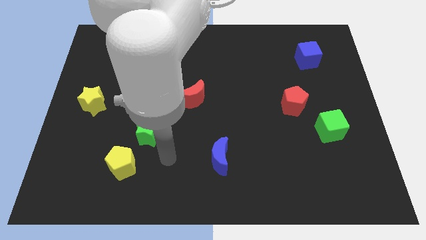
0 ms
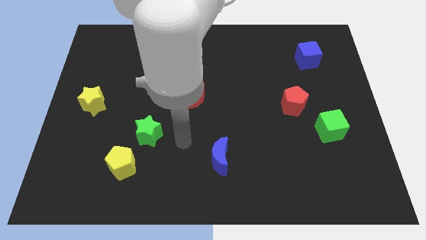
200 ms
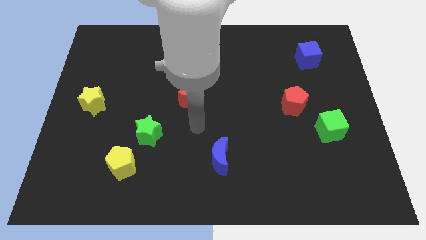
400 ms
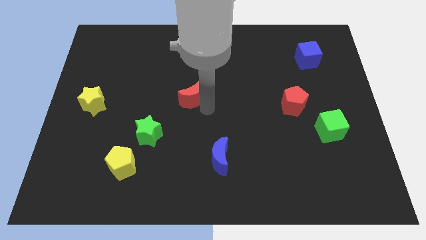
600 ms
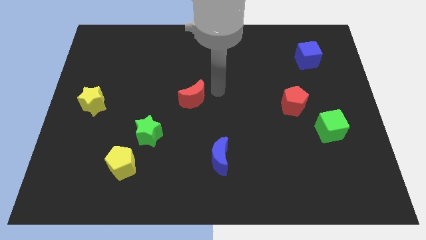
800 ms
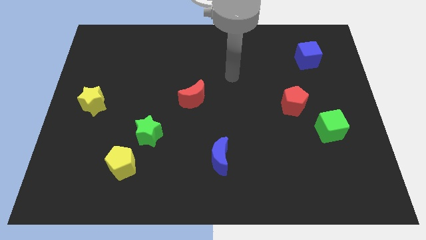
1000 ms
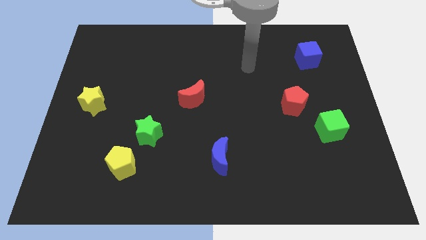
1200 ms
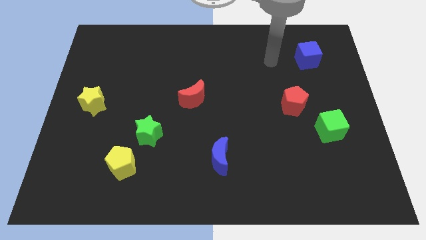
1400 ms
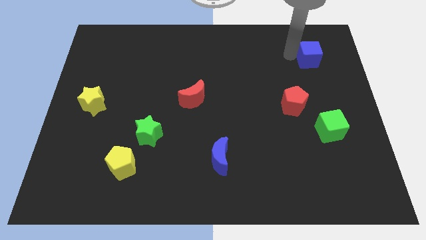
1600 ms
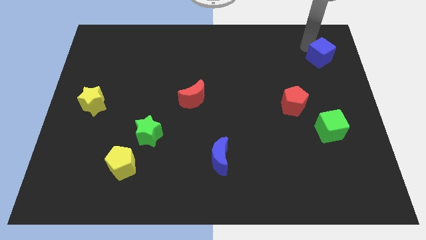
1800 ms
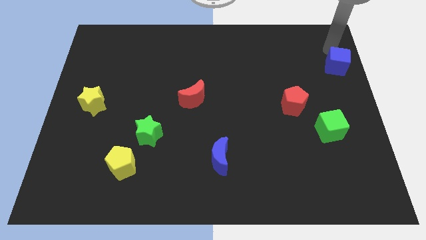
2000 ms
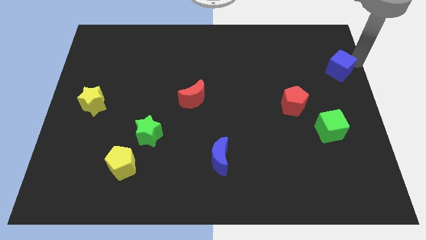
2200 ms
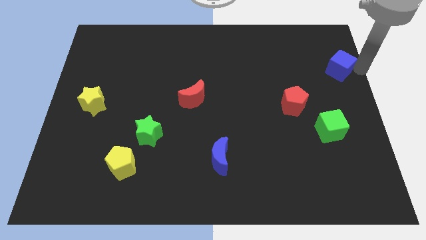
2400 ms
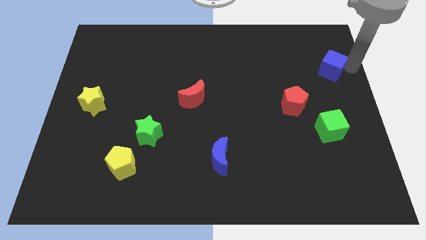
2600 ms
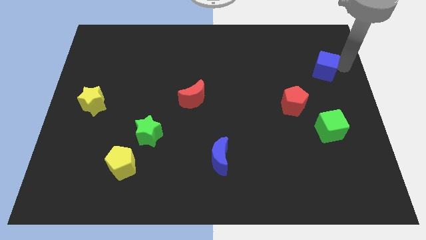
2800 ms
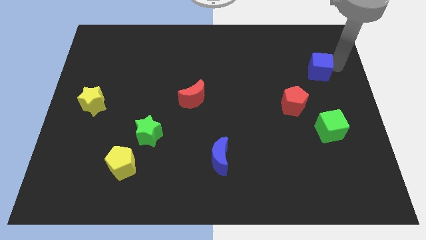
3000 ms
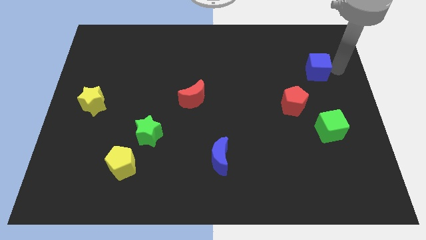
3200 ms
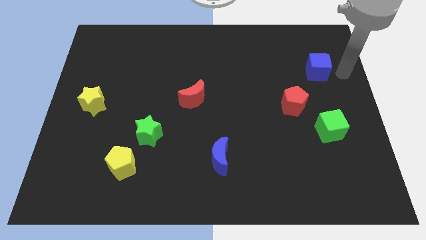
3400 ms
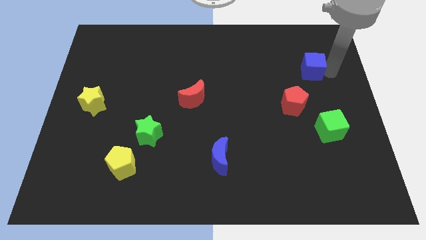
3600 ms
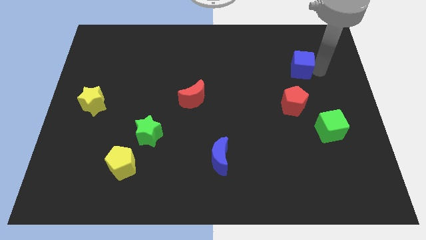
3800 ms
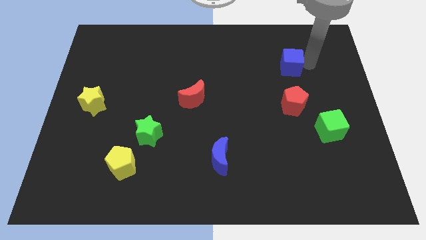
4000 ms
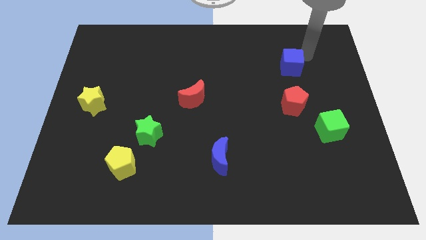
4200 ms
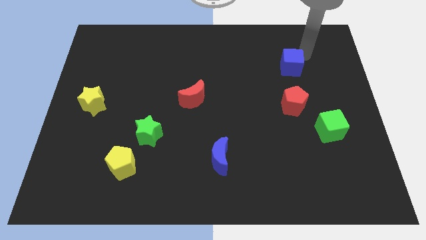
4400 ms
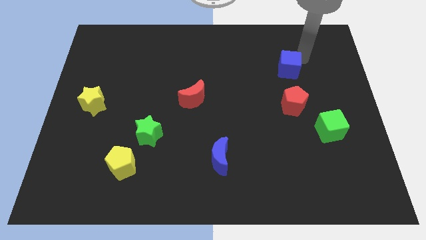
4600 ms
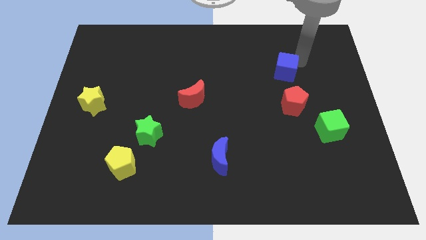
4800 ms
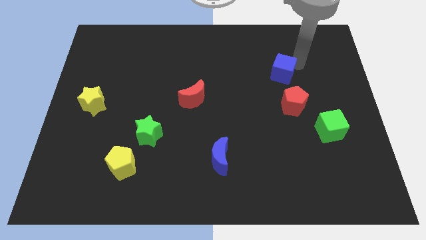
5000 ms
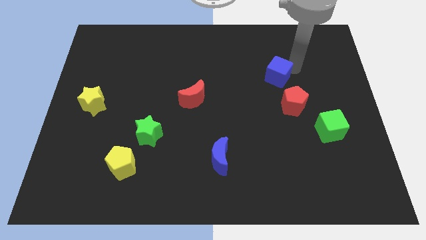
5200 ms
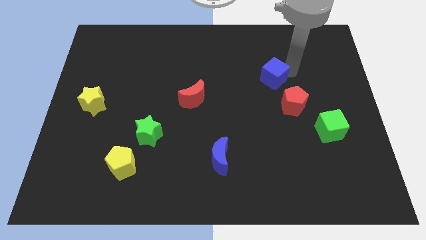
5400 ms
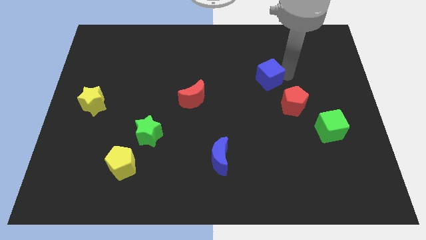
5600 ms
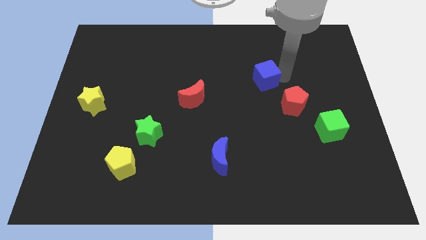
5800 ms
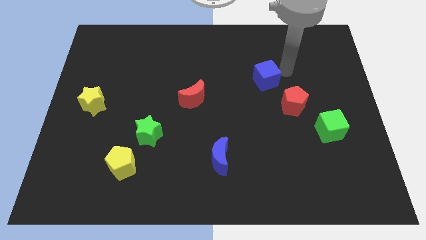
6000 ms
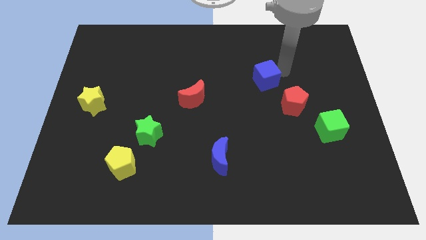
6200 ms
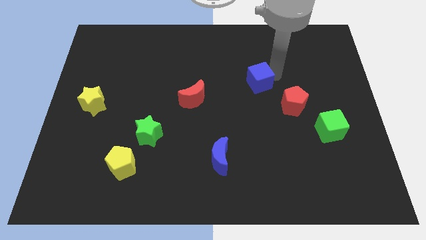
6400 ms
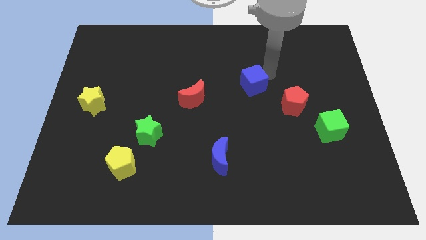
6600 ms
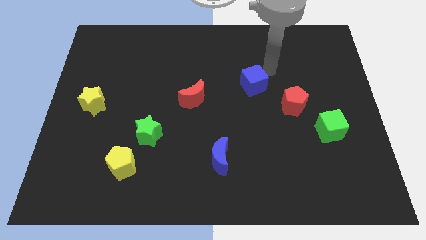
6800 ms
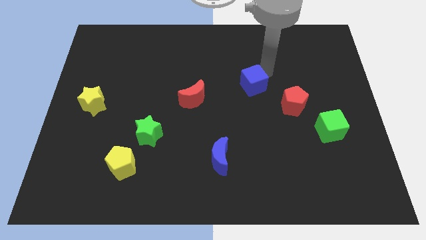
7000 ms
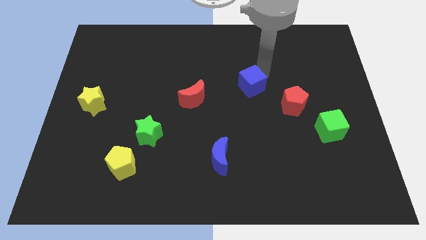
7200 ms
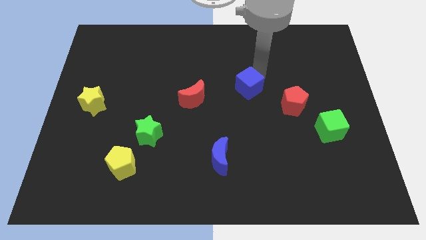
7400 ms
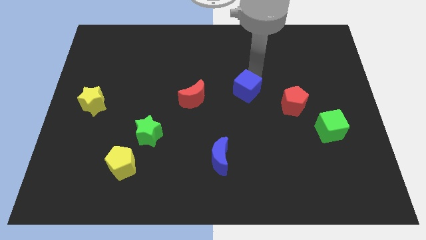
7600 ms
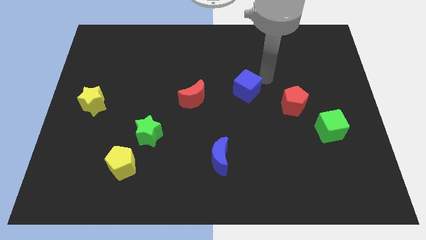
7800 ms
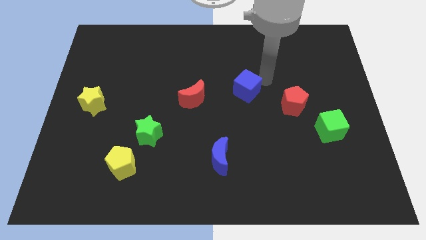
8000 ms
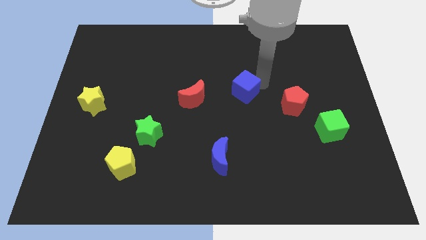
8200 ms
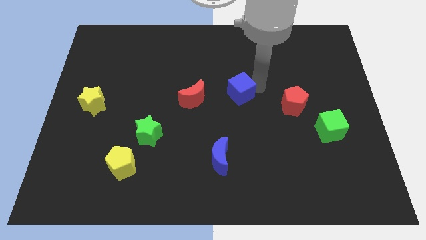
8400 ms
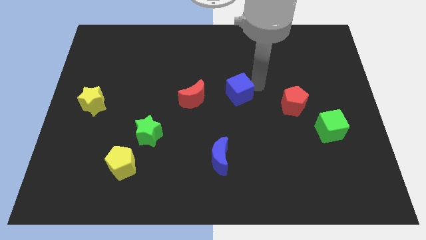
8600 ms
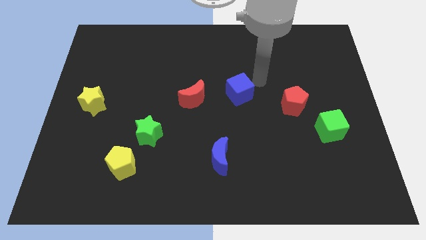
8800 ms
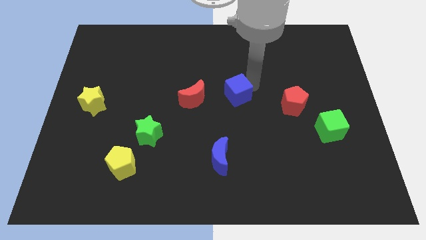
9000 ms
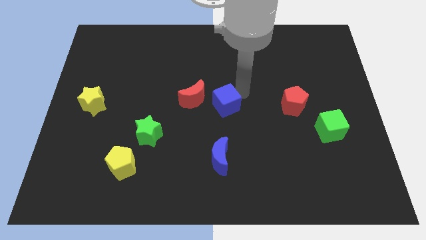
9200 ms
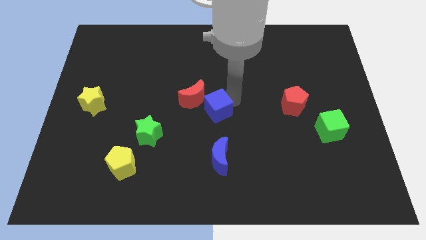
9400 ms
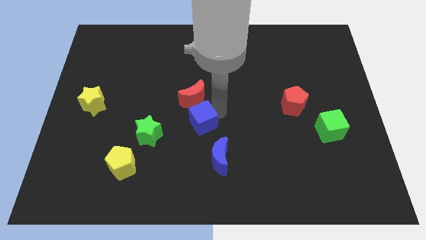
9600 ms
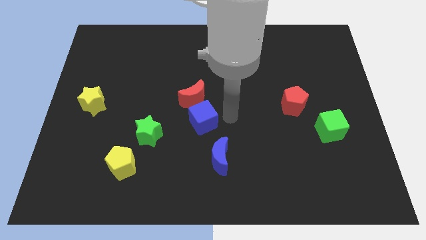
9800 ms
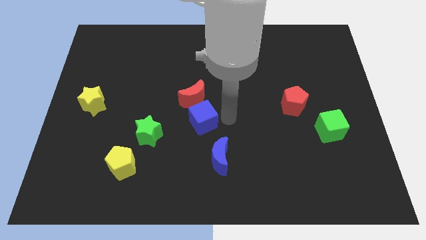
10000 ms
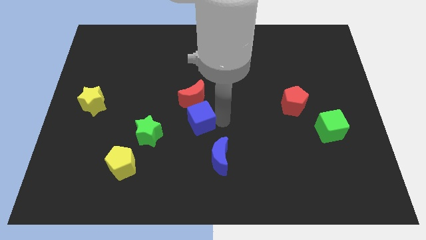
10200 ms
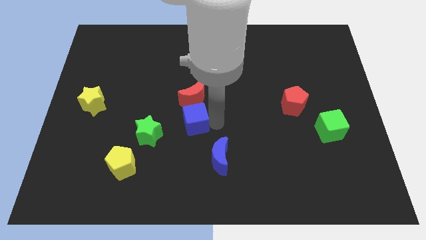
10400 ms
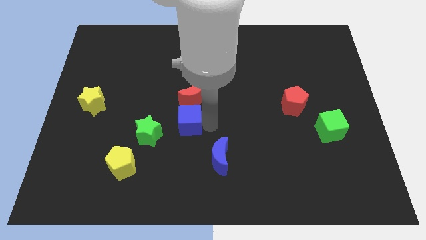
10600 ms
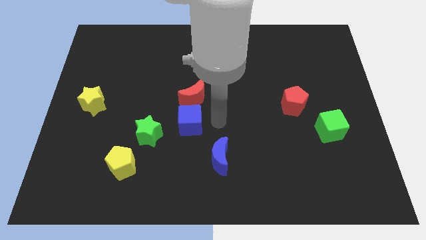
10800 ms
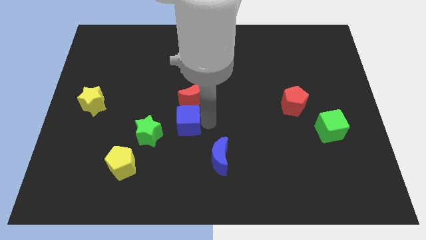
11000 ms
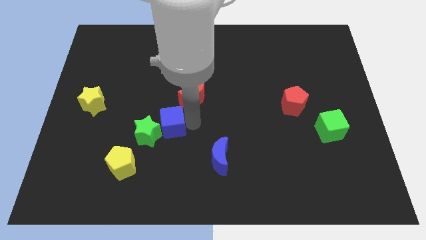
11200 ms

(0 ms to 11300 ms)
move the blue cube to the green star

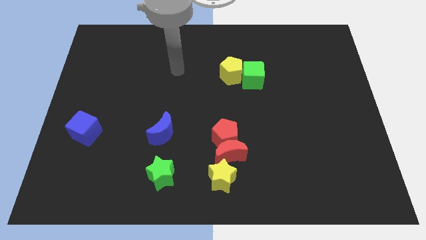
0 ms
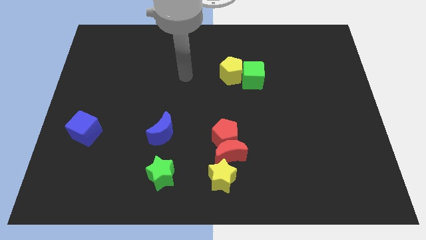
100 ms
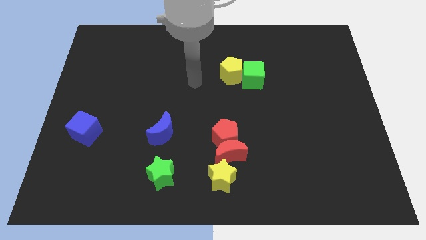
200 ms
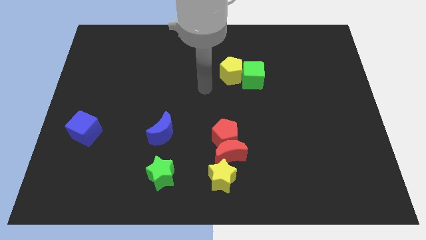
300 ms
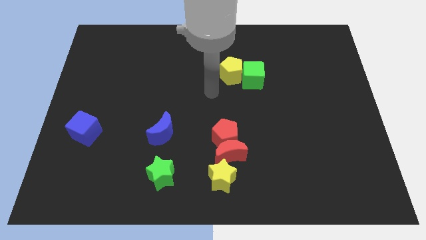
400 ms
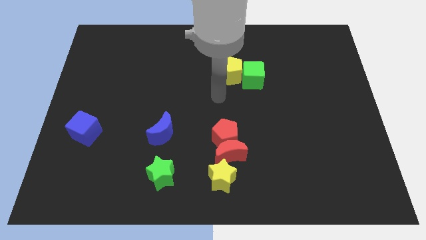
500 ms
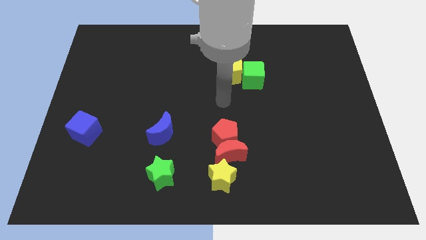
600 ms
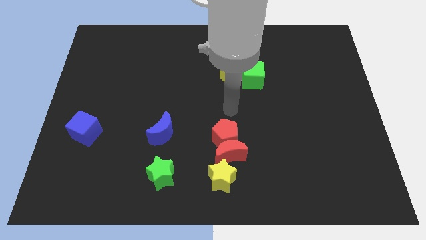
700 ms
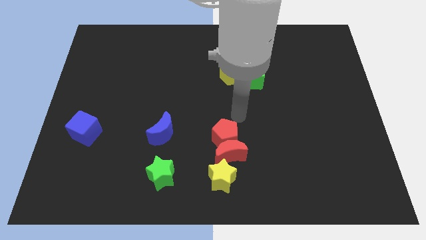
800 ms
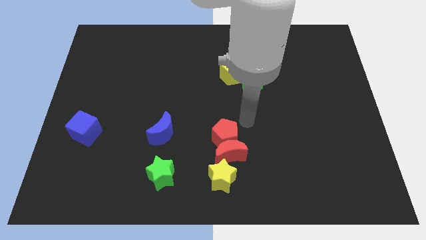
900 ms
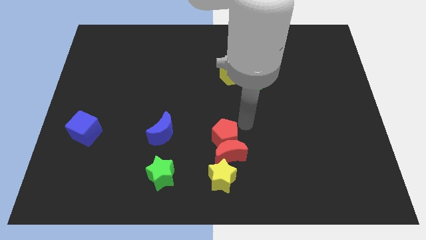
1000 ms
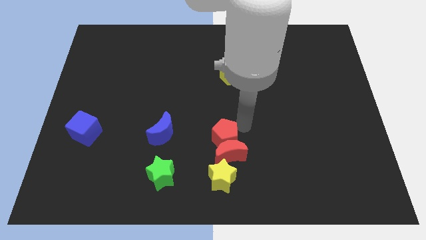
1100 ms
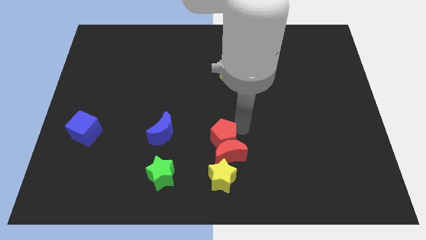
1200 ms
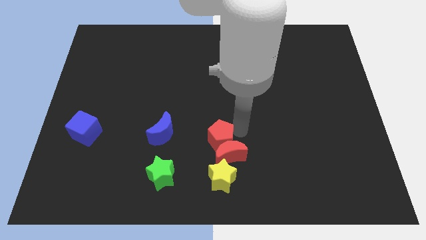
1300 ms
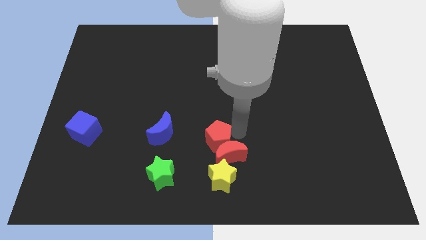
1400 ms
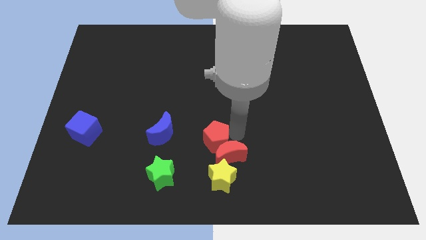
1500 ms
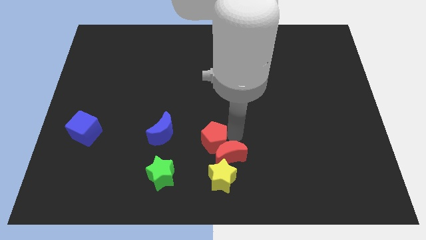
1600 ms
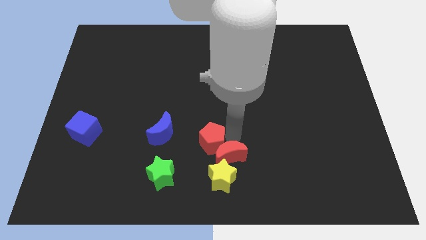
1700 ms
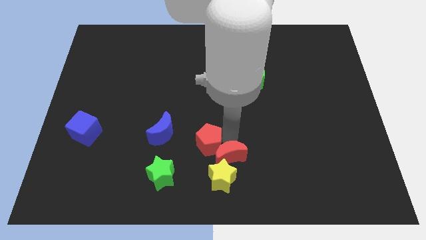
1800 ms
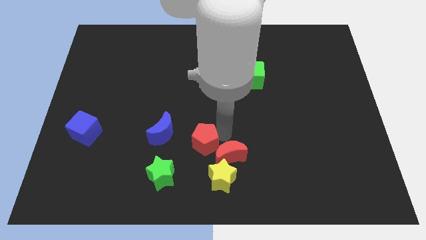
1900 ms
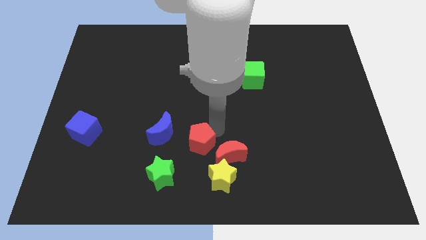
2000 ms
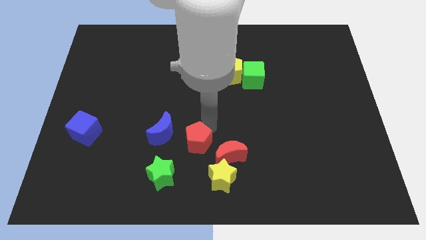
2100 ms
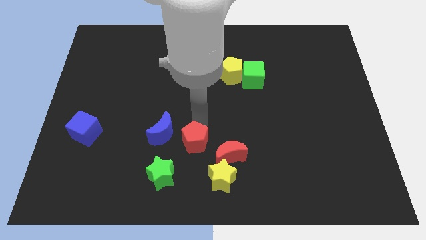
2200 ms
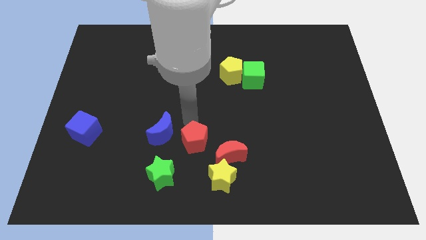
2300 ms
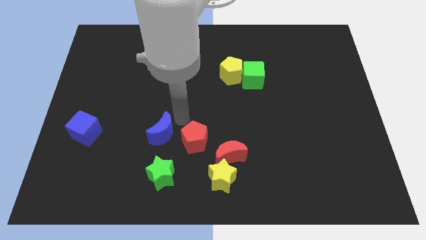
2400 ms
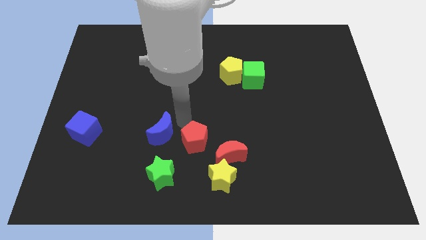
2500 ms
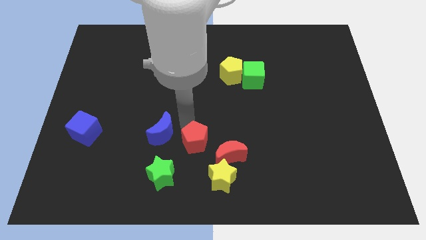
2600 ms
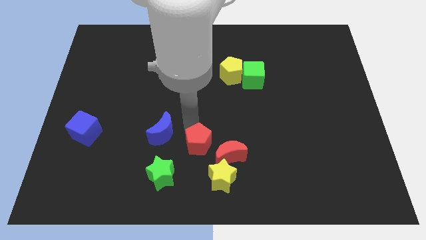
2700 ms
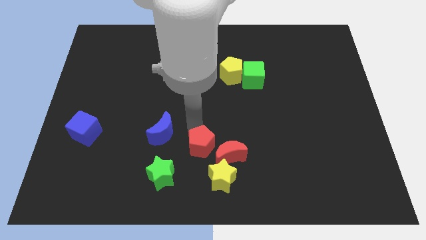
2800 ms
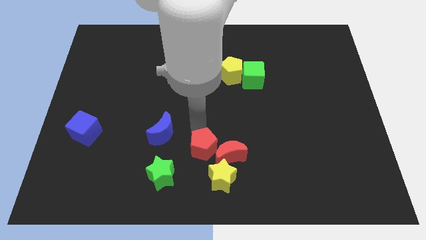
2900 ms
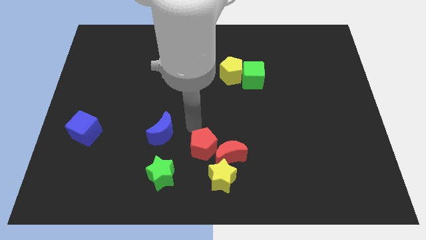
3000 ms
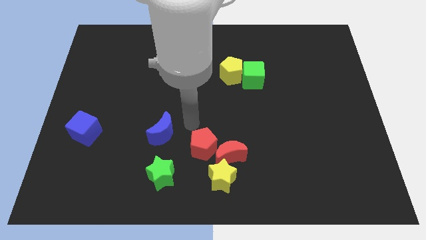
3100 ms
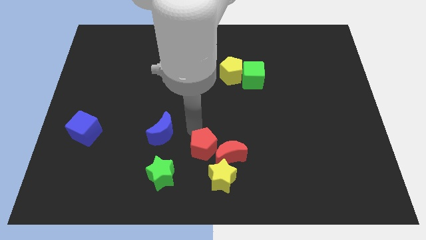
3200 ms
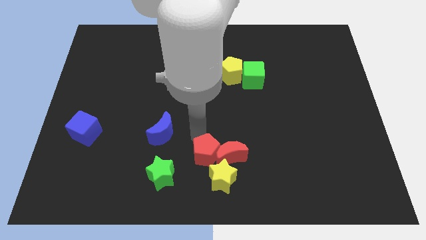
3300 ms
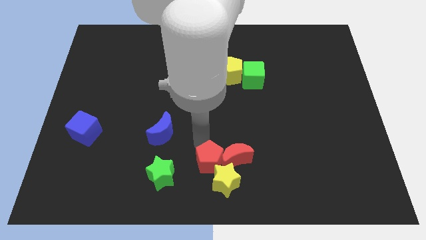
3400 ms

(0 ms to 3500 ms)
slide the red pentagon close to the yellow star
